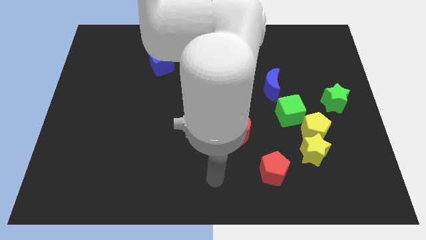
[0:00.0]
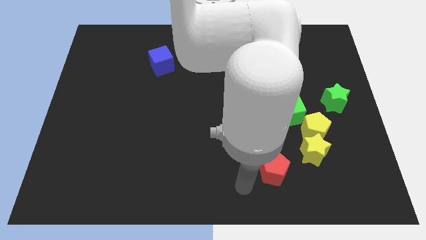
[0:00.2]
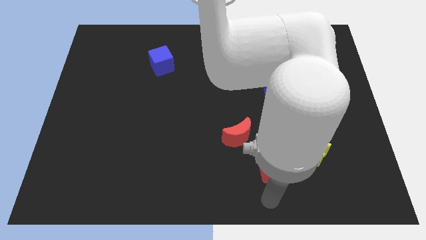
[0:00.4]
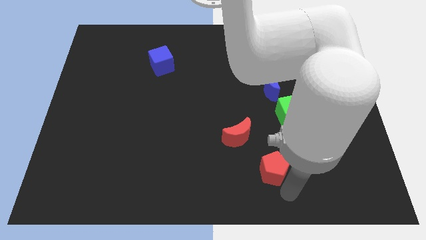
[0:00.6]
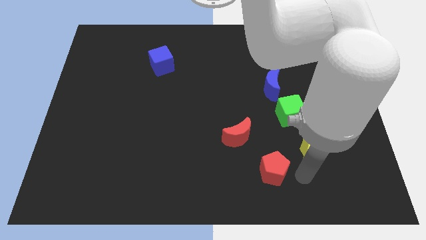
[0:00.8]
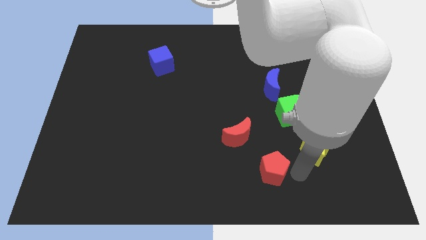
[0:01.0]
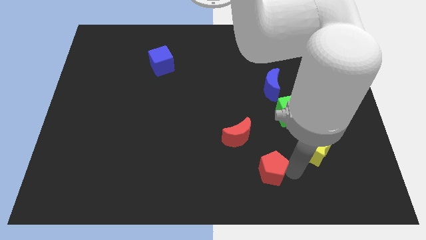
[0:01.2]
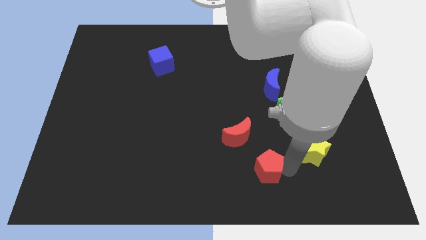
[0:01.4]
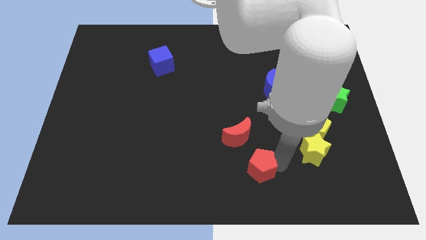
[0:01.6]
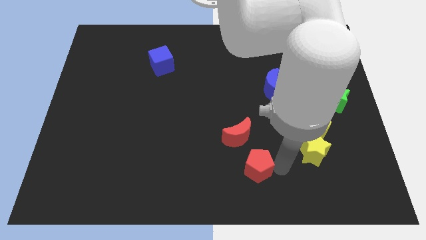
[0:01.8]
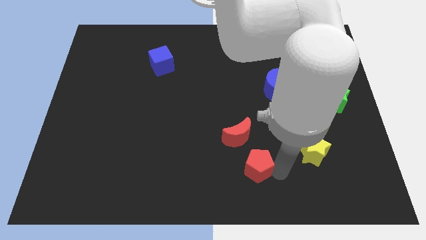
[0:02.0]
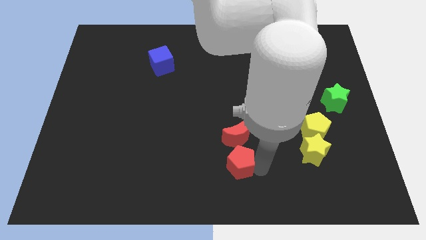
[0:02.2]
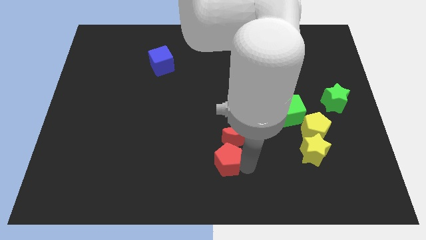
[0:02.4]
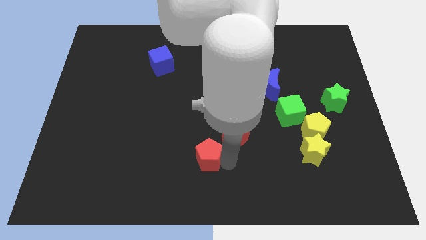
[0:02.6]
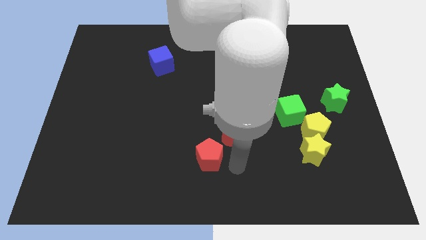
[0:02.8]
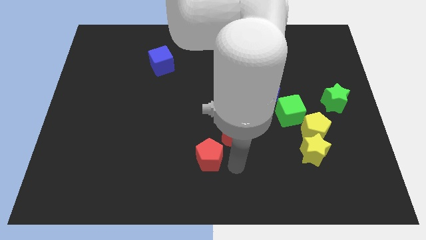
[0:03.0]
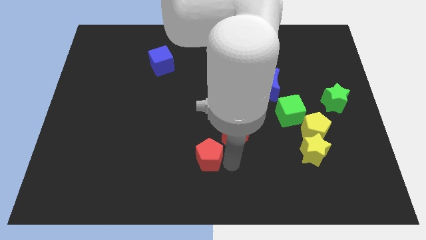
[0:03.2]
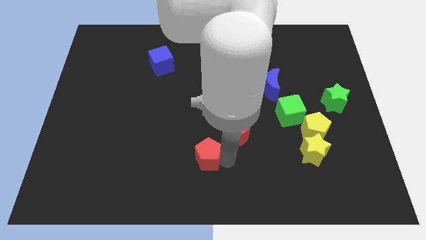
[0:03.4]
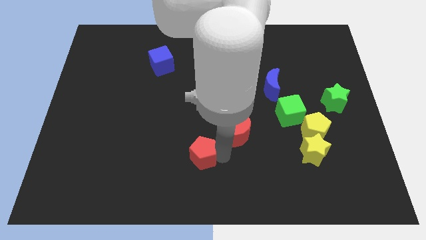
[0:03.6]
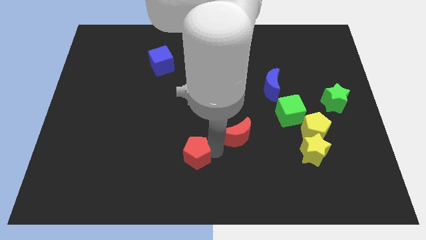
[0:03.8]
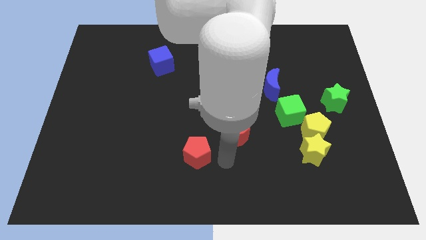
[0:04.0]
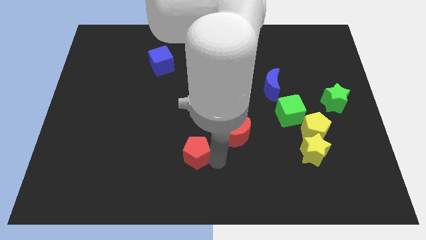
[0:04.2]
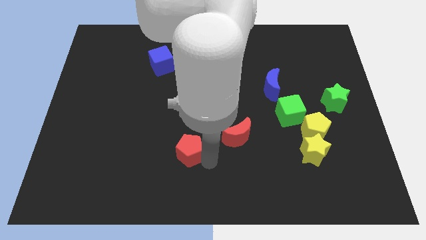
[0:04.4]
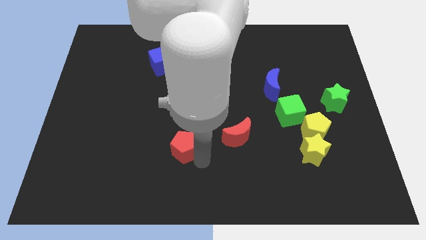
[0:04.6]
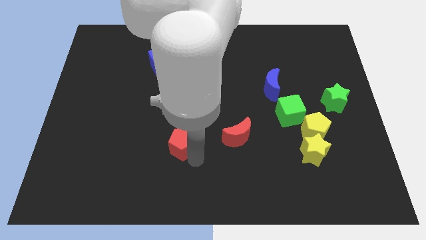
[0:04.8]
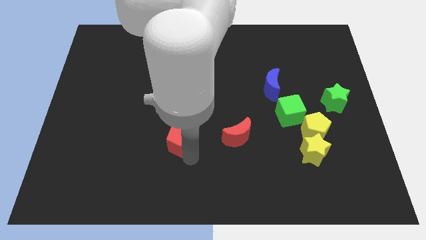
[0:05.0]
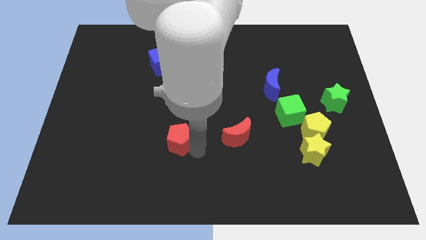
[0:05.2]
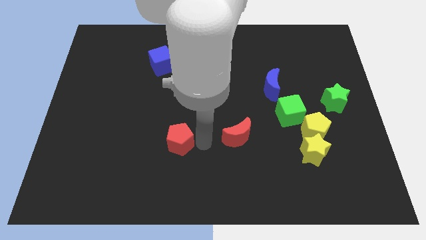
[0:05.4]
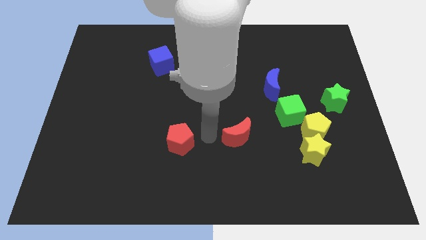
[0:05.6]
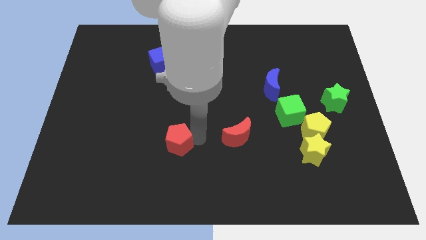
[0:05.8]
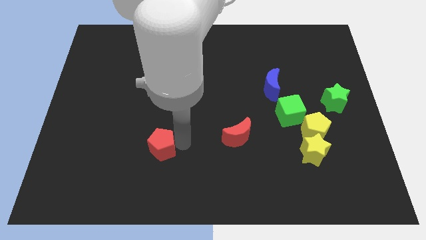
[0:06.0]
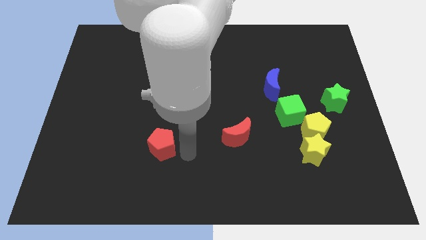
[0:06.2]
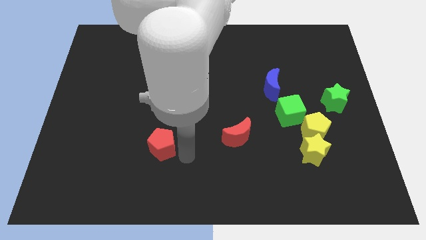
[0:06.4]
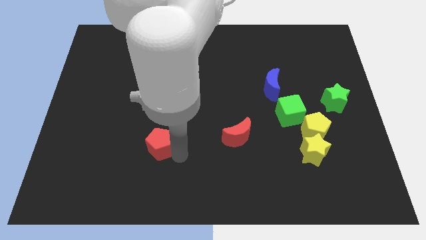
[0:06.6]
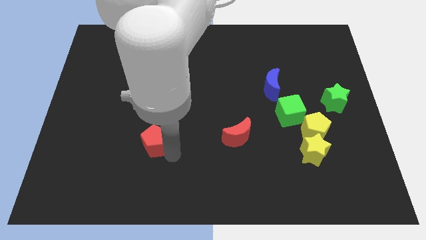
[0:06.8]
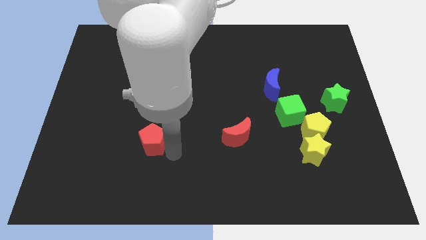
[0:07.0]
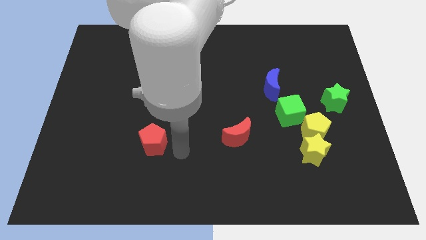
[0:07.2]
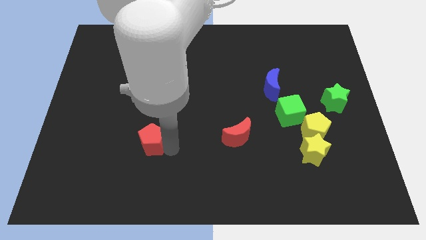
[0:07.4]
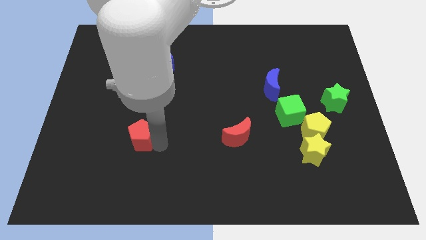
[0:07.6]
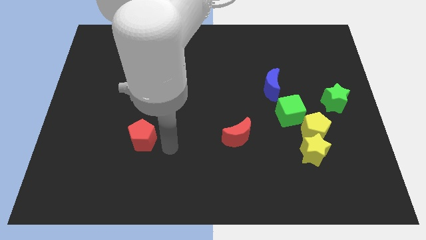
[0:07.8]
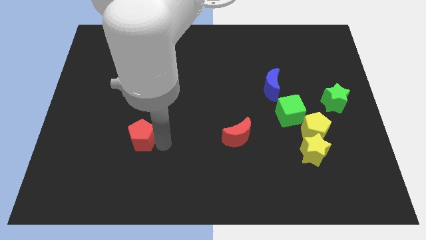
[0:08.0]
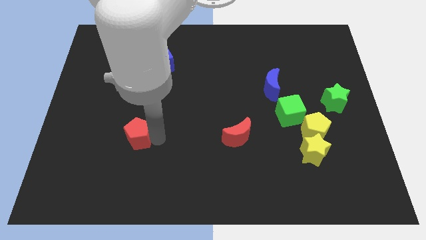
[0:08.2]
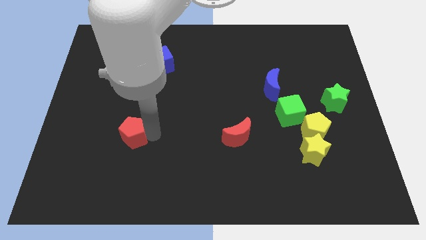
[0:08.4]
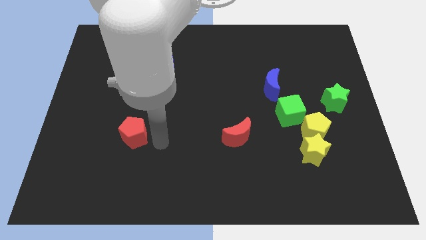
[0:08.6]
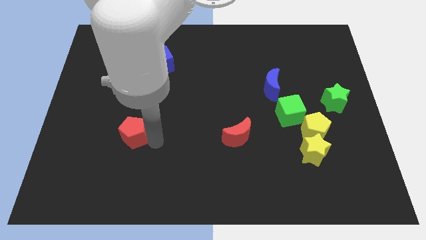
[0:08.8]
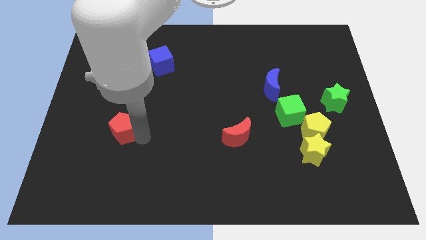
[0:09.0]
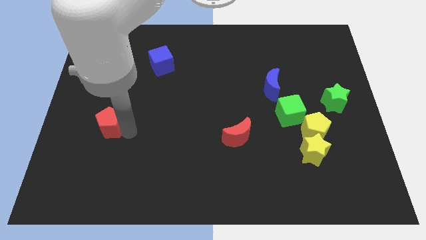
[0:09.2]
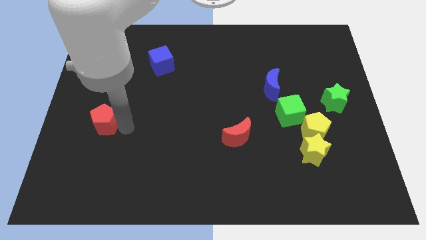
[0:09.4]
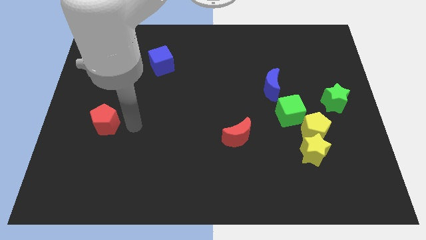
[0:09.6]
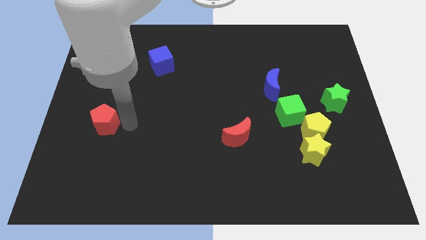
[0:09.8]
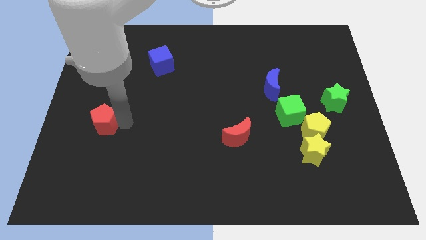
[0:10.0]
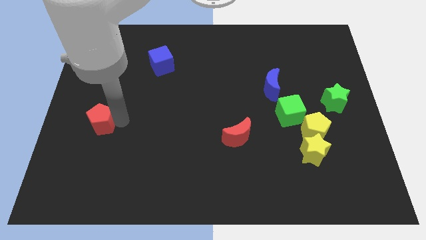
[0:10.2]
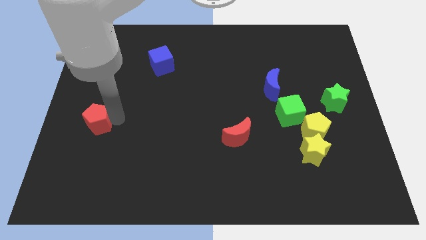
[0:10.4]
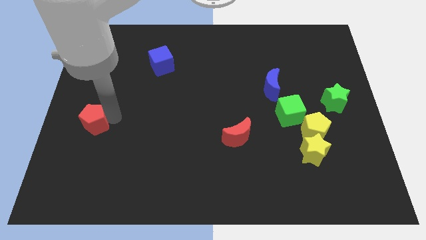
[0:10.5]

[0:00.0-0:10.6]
move the red pentagon to the center left

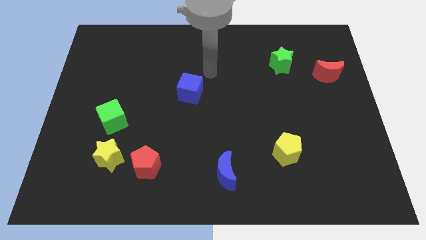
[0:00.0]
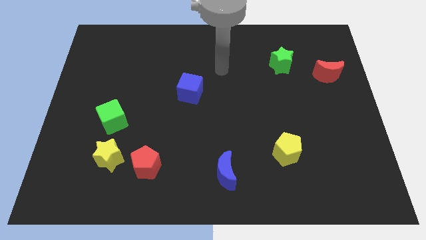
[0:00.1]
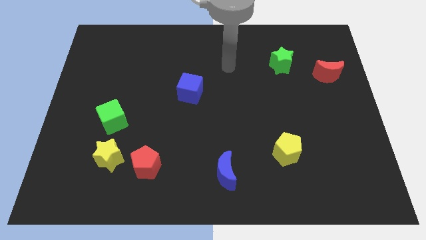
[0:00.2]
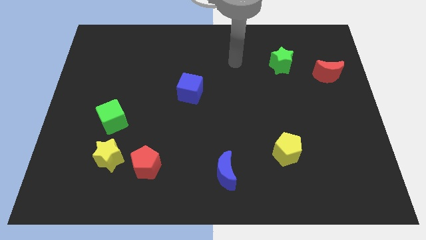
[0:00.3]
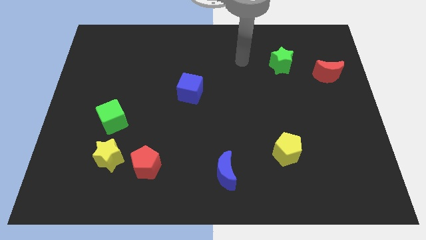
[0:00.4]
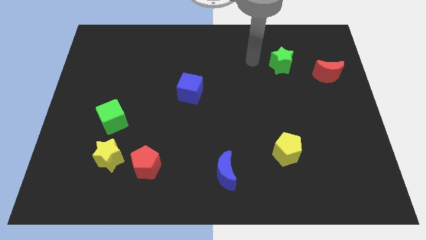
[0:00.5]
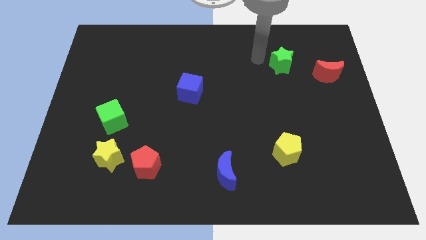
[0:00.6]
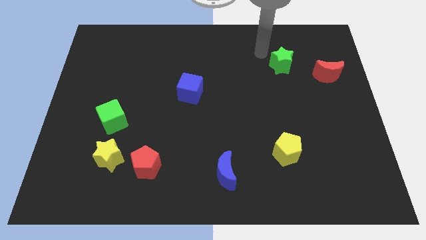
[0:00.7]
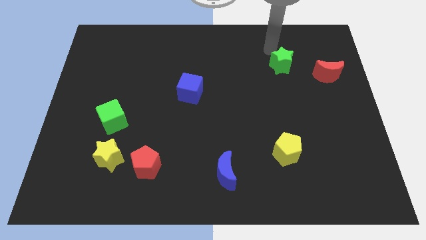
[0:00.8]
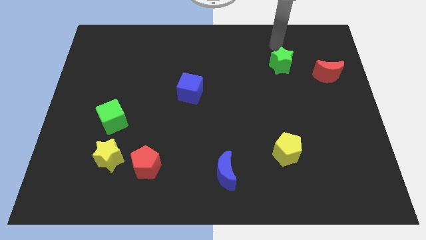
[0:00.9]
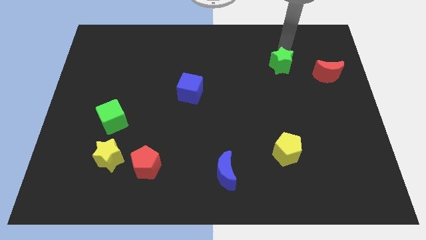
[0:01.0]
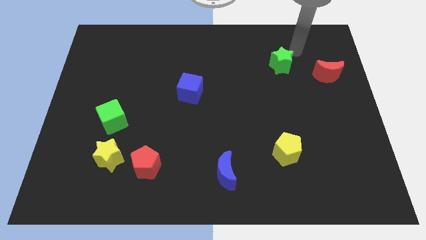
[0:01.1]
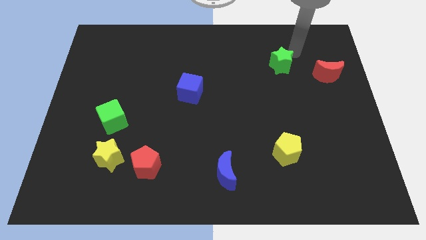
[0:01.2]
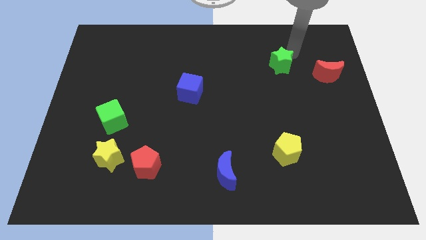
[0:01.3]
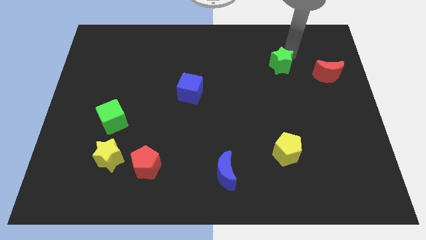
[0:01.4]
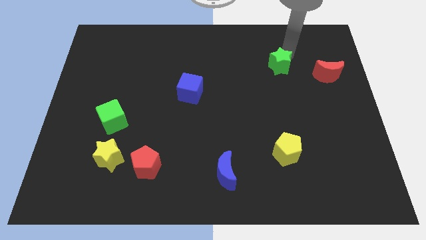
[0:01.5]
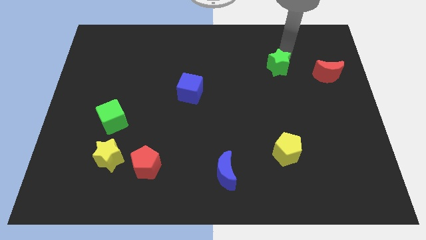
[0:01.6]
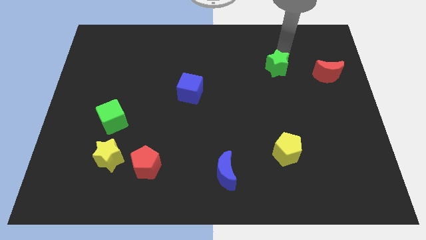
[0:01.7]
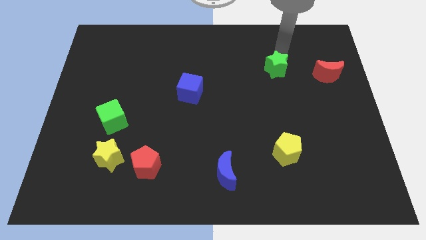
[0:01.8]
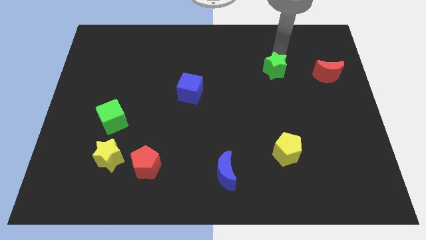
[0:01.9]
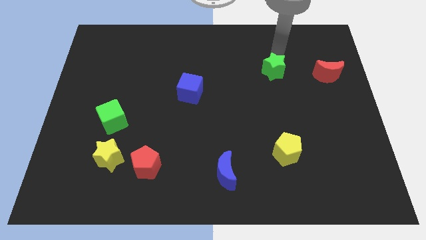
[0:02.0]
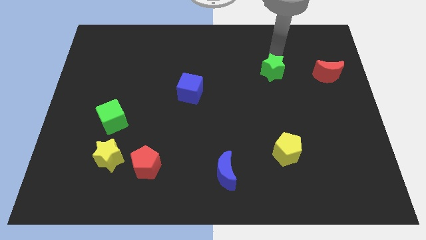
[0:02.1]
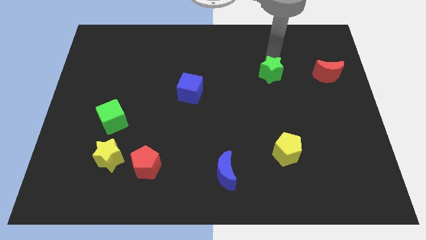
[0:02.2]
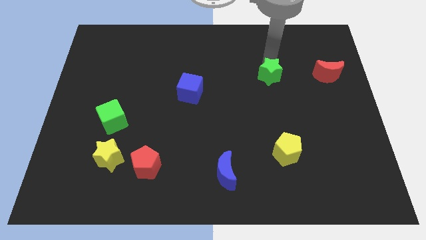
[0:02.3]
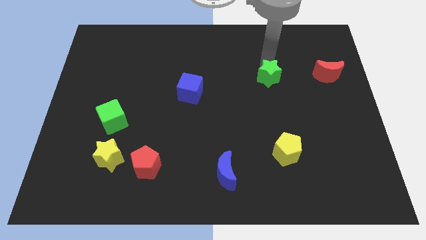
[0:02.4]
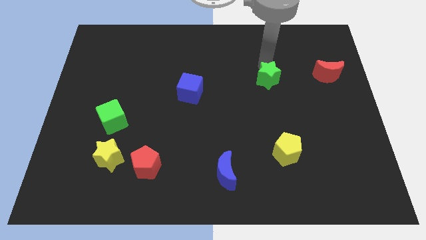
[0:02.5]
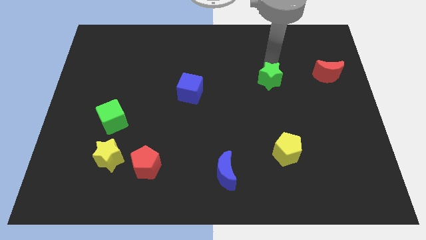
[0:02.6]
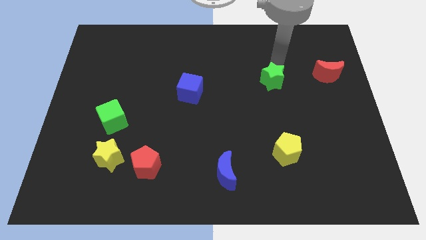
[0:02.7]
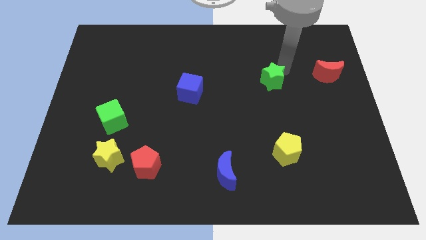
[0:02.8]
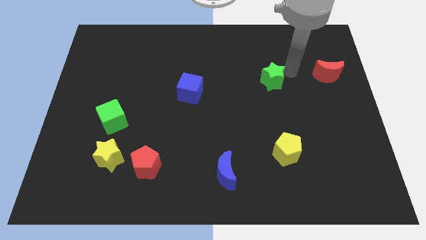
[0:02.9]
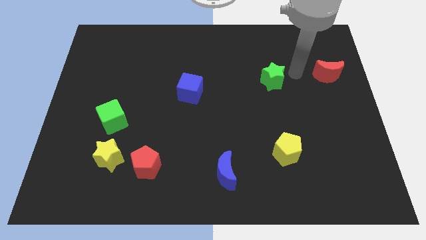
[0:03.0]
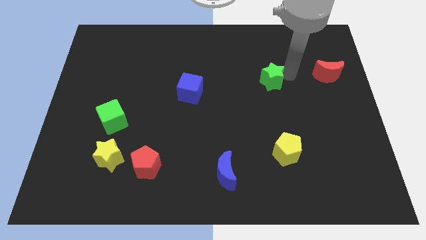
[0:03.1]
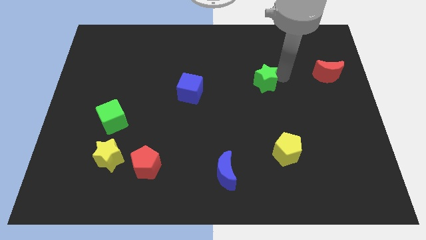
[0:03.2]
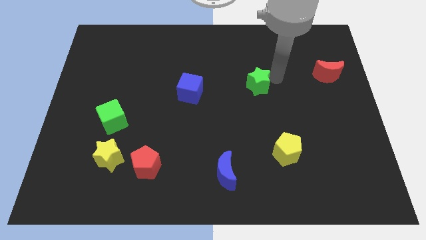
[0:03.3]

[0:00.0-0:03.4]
put the green star to the center
